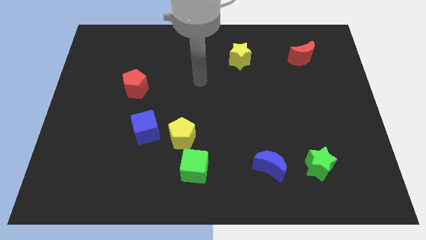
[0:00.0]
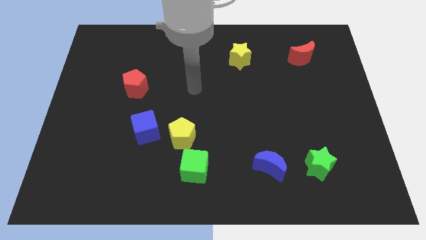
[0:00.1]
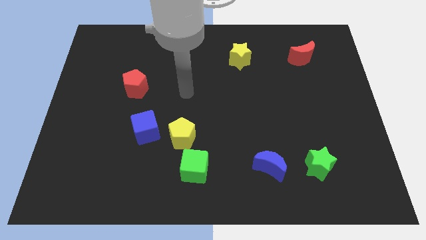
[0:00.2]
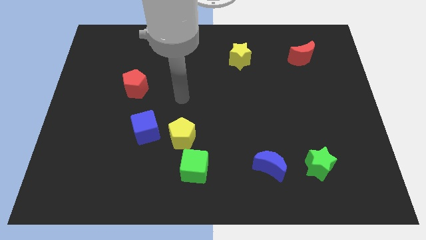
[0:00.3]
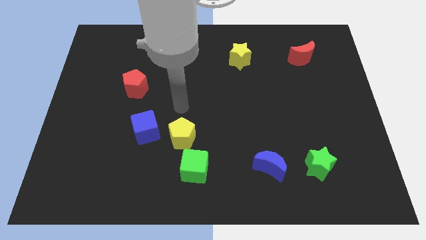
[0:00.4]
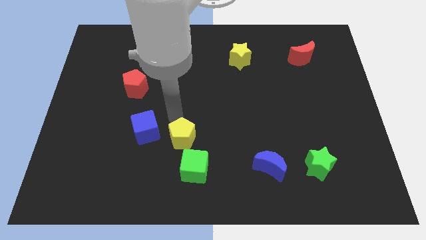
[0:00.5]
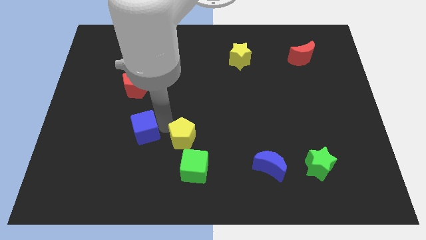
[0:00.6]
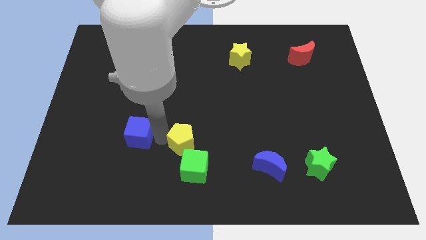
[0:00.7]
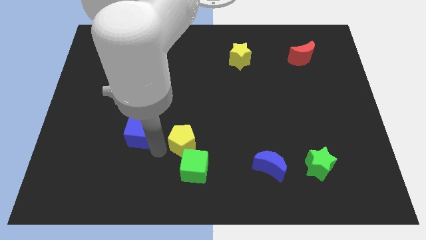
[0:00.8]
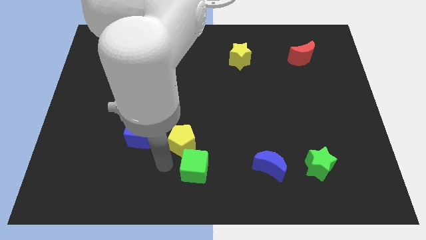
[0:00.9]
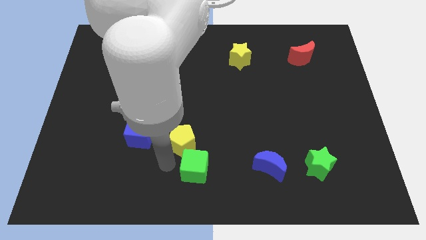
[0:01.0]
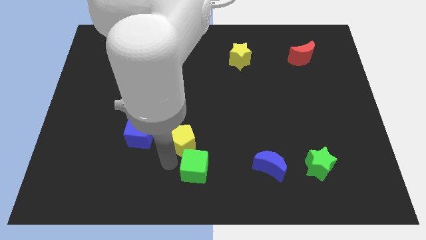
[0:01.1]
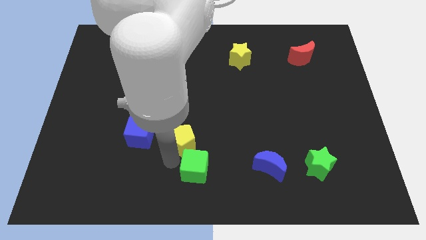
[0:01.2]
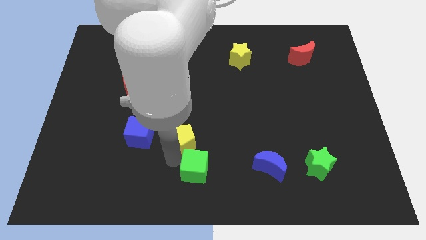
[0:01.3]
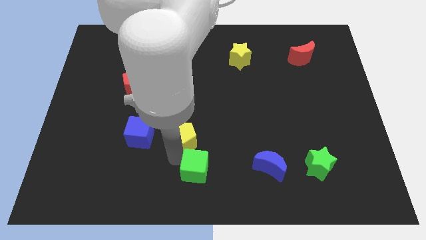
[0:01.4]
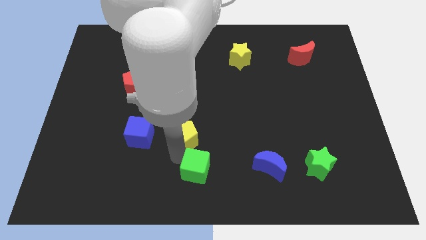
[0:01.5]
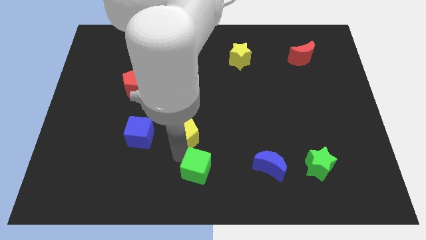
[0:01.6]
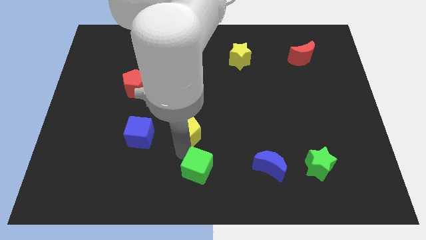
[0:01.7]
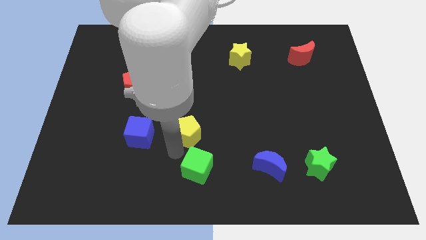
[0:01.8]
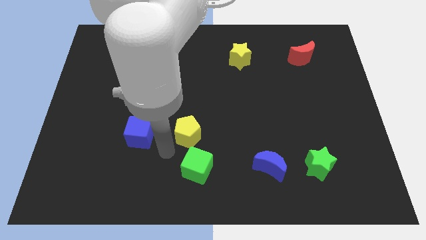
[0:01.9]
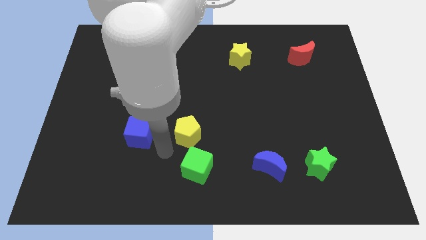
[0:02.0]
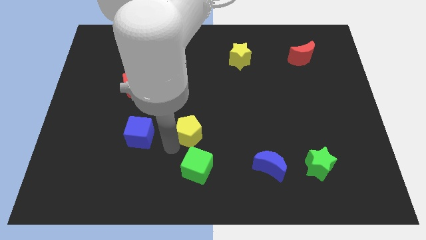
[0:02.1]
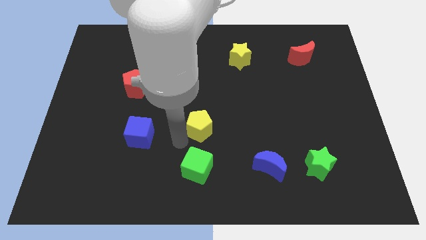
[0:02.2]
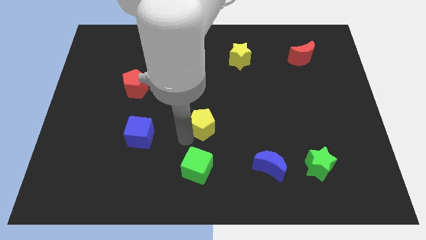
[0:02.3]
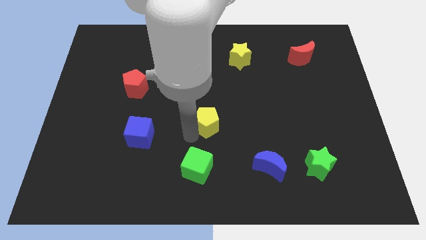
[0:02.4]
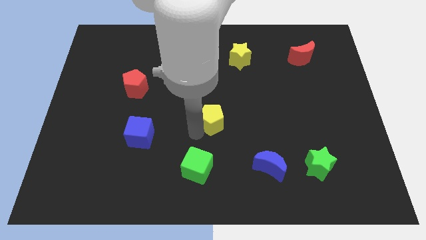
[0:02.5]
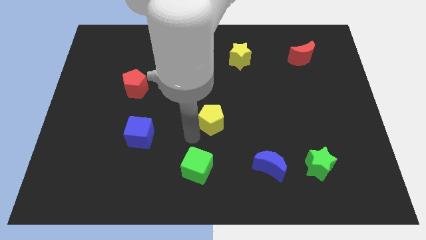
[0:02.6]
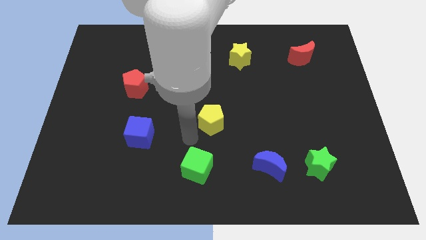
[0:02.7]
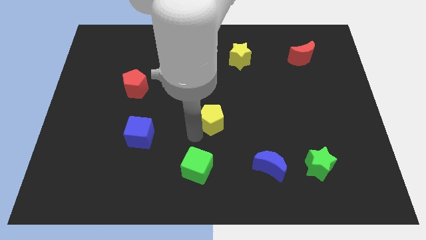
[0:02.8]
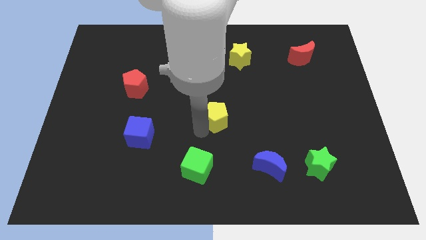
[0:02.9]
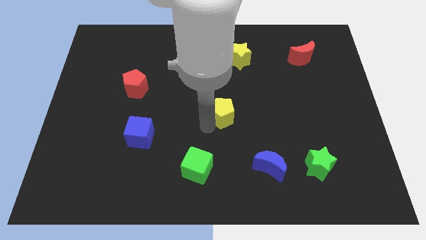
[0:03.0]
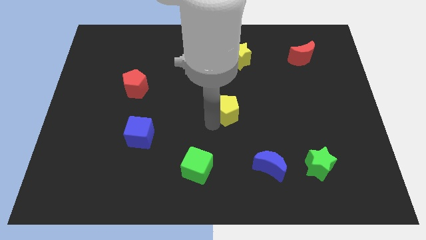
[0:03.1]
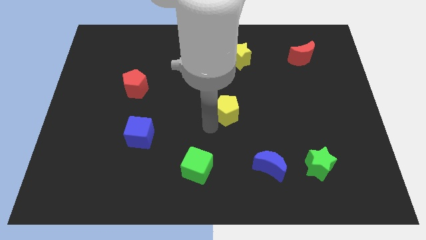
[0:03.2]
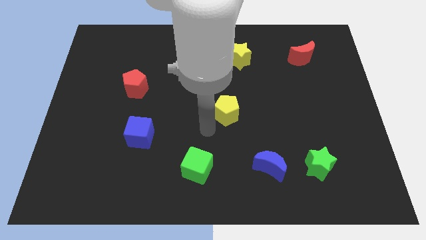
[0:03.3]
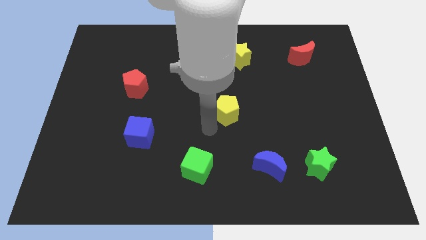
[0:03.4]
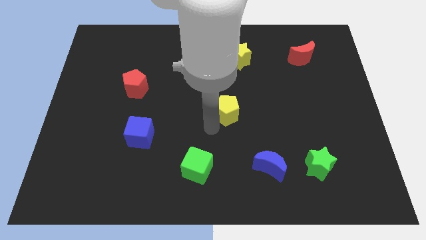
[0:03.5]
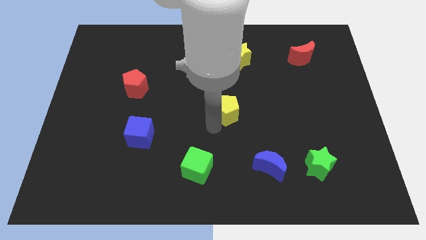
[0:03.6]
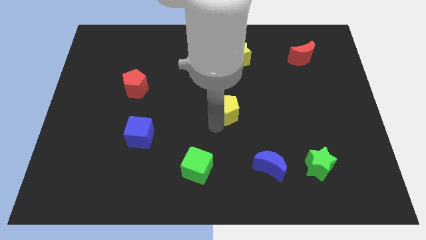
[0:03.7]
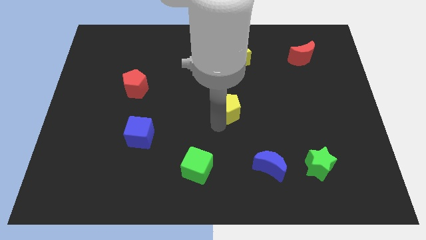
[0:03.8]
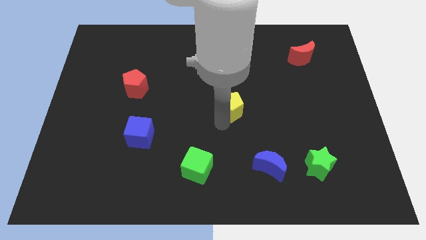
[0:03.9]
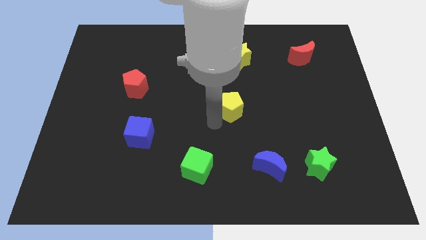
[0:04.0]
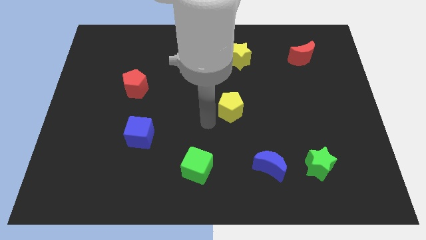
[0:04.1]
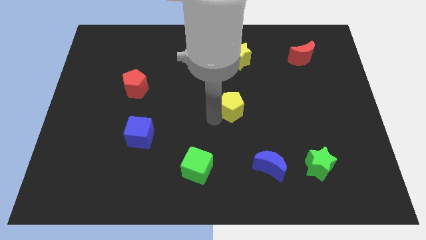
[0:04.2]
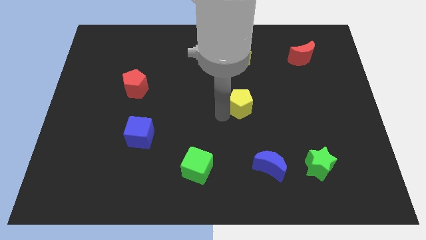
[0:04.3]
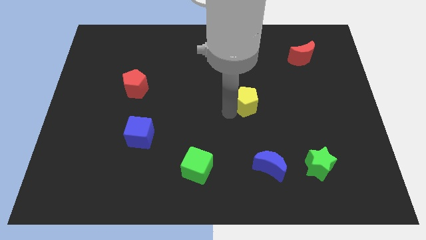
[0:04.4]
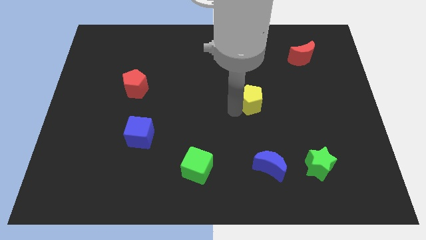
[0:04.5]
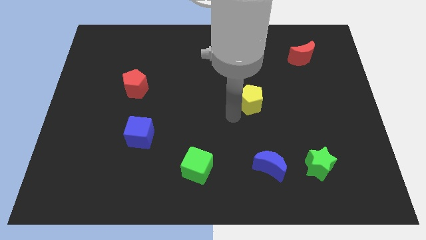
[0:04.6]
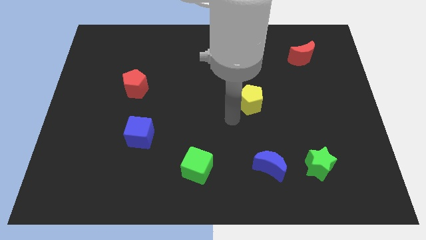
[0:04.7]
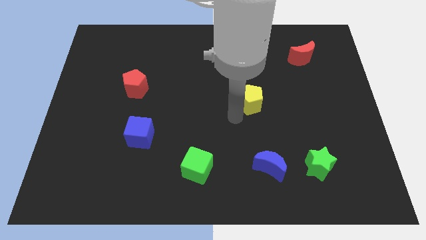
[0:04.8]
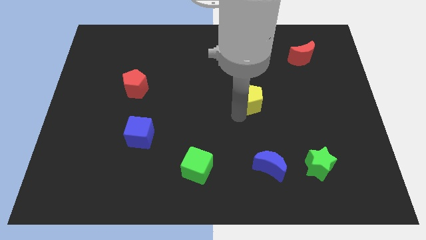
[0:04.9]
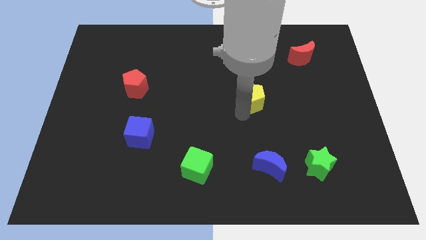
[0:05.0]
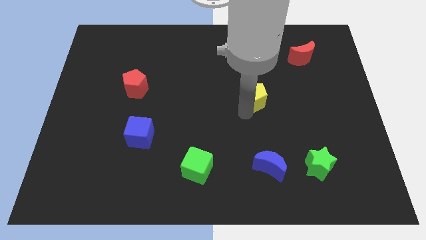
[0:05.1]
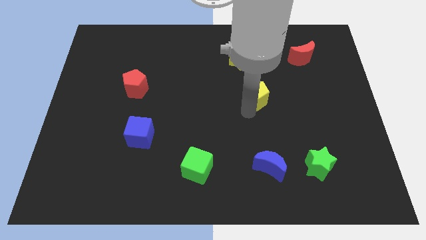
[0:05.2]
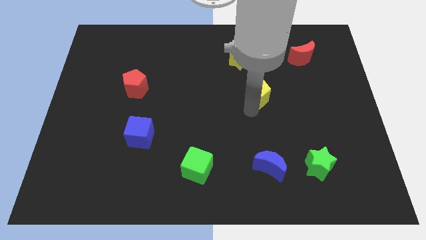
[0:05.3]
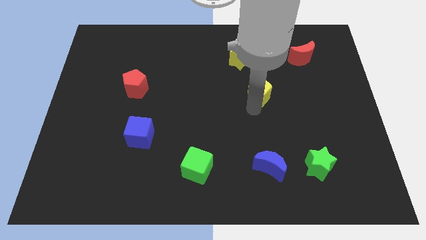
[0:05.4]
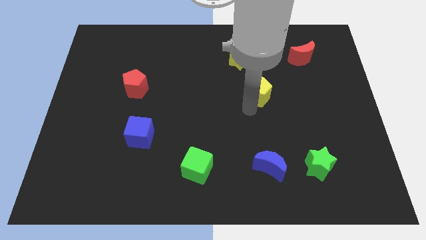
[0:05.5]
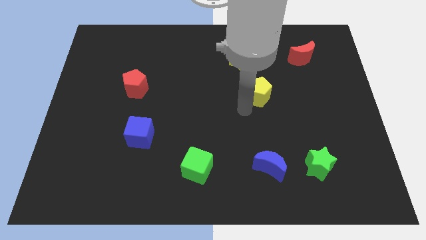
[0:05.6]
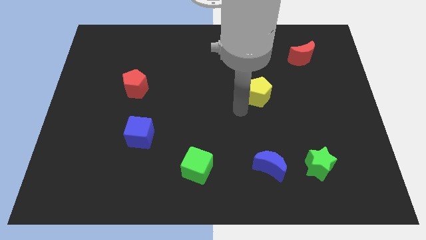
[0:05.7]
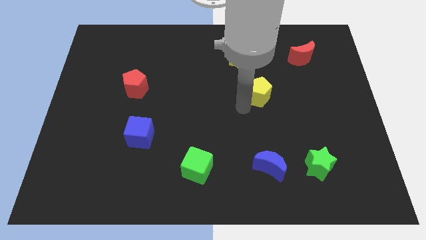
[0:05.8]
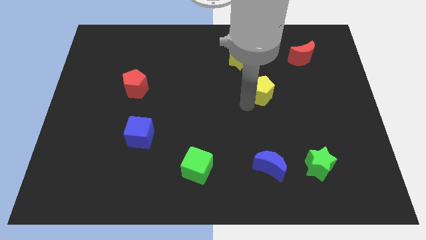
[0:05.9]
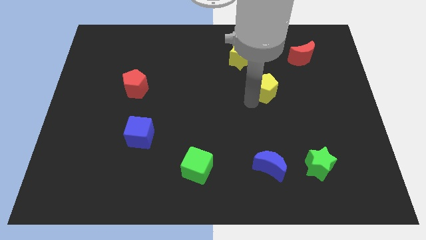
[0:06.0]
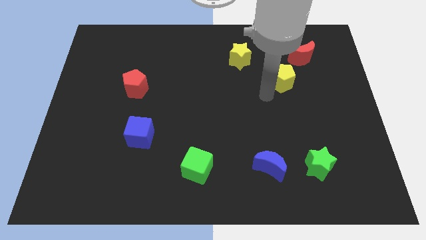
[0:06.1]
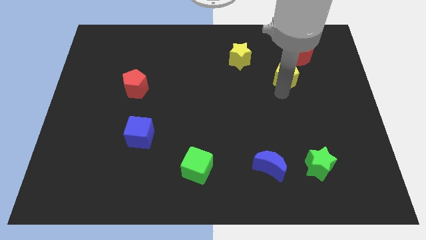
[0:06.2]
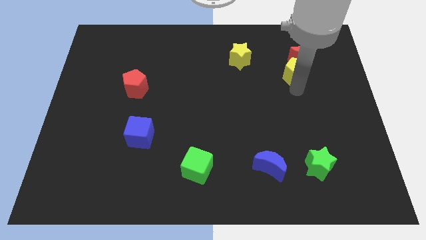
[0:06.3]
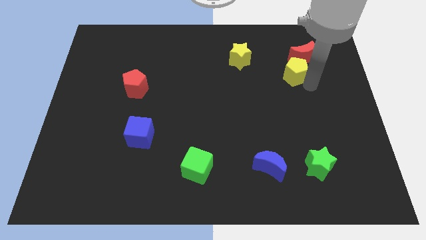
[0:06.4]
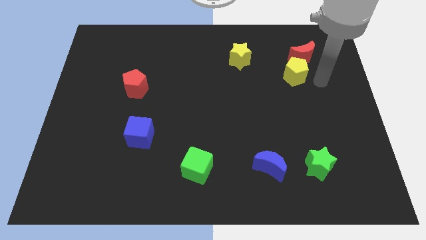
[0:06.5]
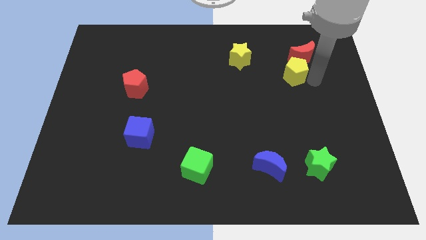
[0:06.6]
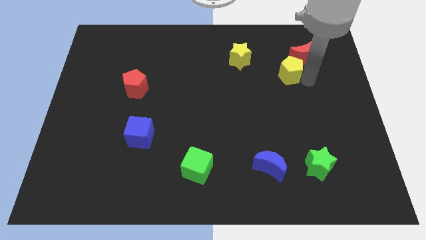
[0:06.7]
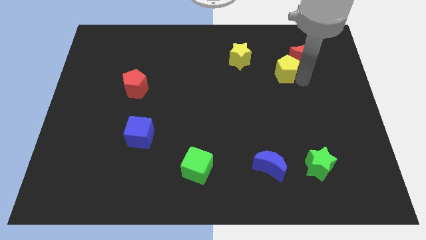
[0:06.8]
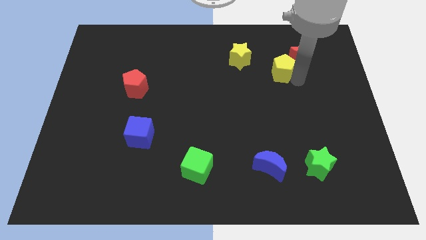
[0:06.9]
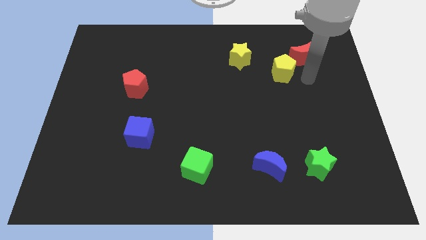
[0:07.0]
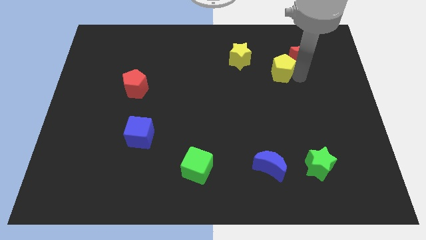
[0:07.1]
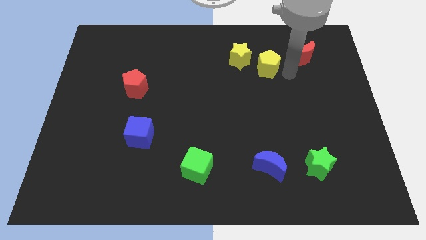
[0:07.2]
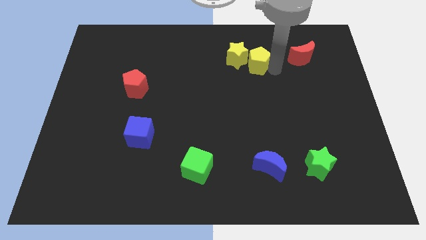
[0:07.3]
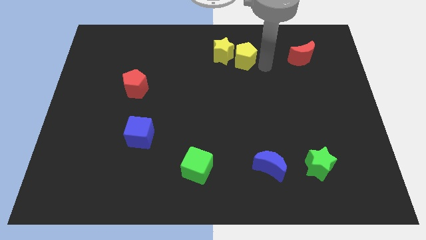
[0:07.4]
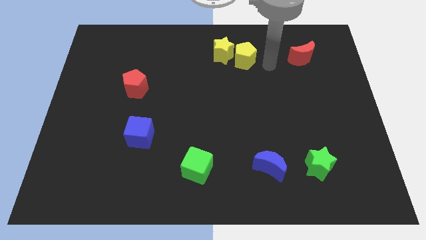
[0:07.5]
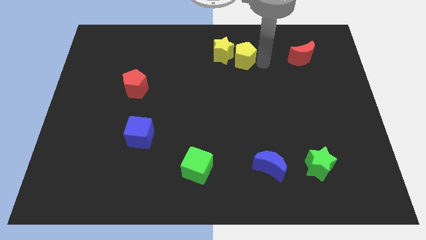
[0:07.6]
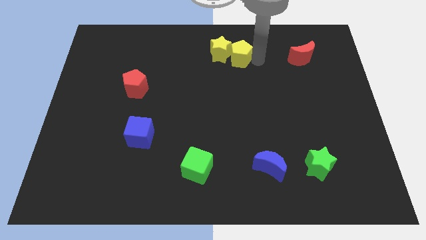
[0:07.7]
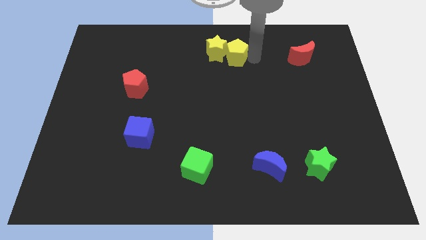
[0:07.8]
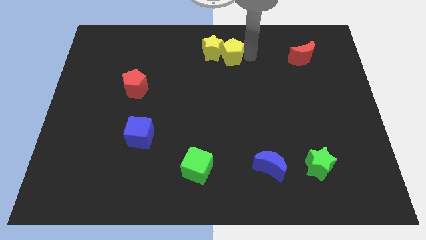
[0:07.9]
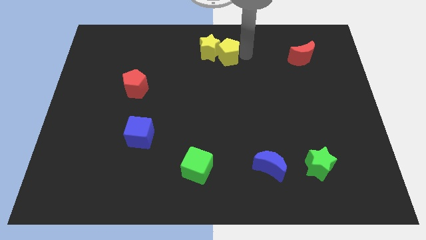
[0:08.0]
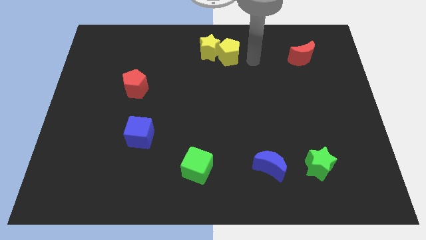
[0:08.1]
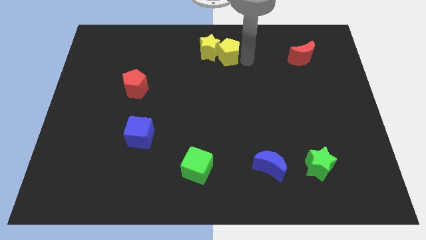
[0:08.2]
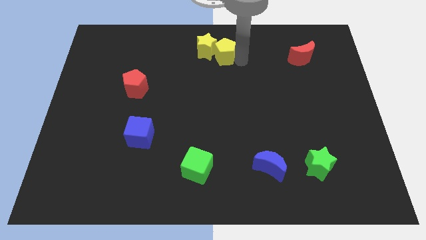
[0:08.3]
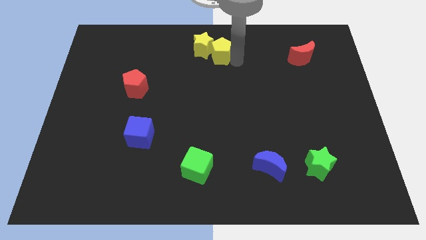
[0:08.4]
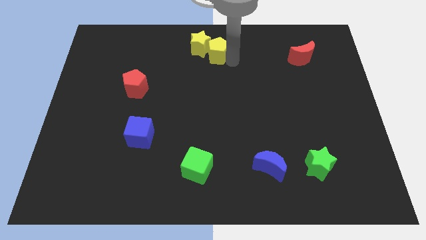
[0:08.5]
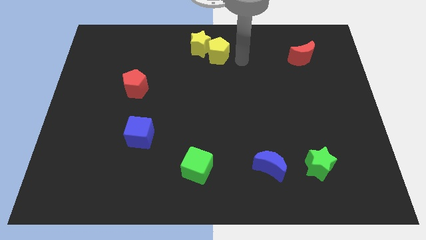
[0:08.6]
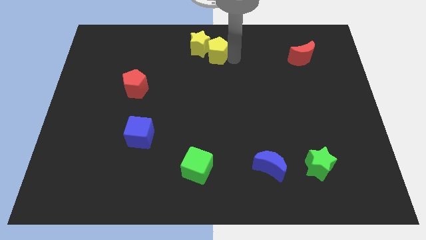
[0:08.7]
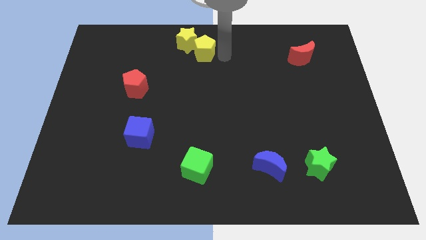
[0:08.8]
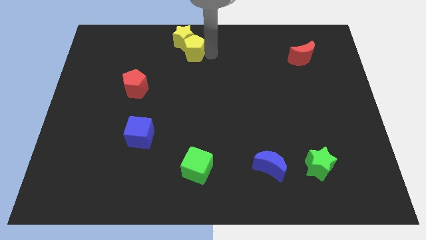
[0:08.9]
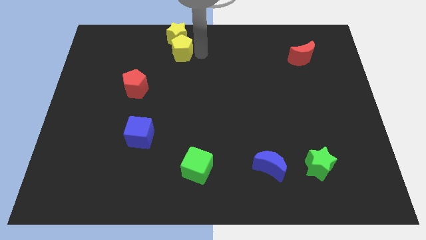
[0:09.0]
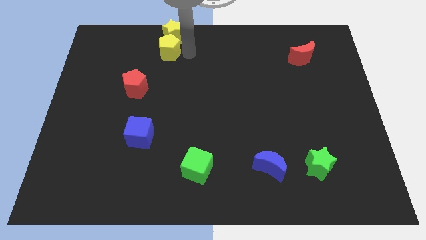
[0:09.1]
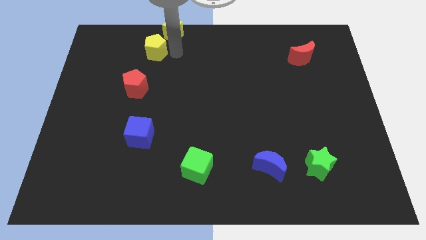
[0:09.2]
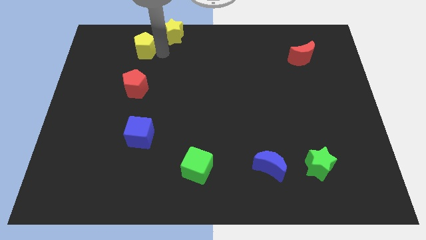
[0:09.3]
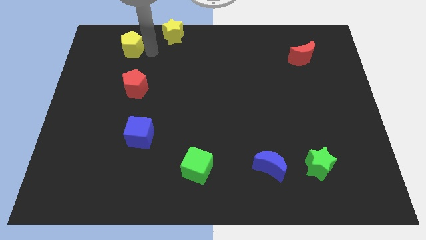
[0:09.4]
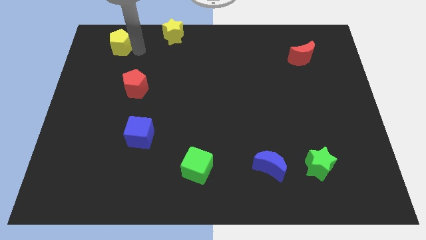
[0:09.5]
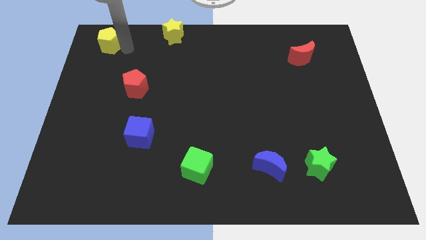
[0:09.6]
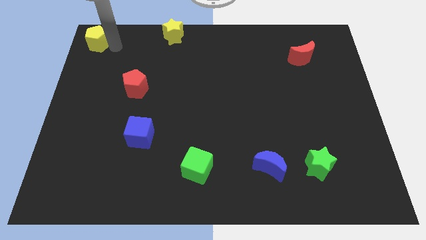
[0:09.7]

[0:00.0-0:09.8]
push the yellow pentagon to the top left of the board
